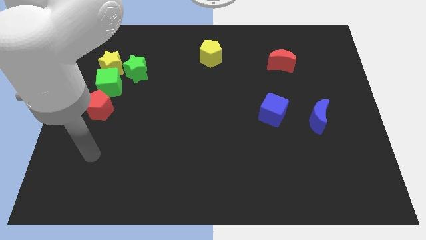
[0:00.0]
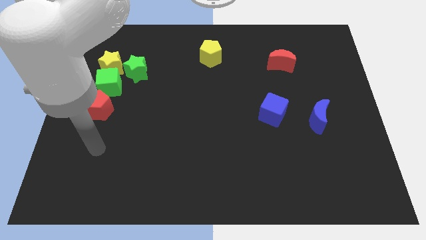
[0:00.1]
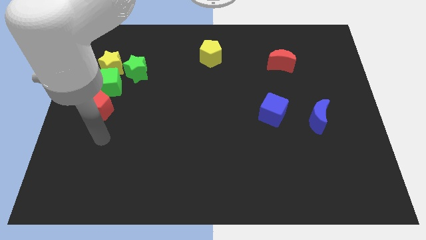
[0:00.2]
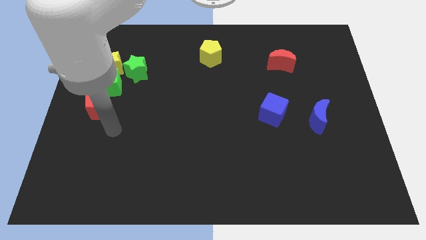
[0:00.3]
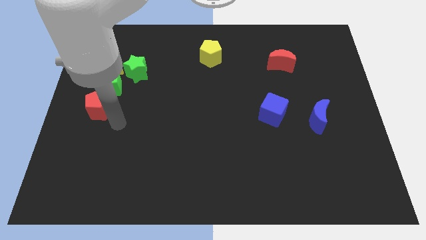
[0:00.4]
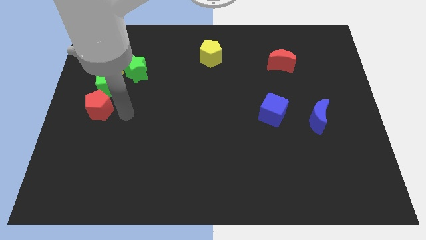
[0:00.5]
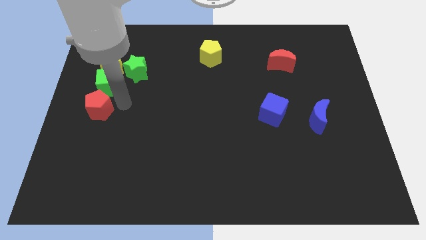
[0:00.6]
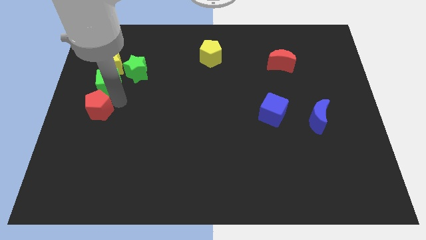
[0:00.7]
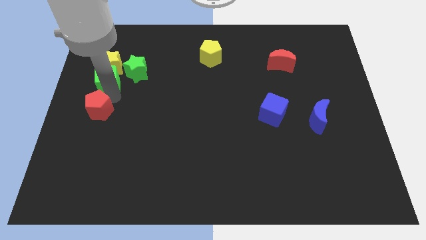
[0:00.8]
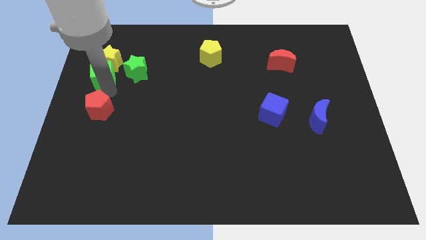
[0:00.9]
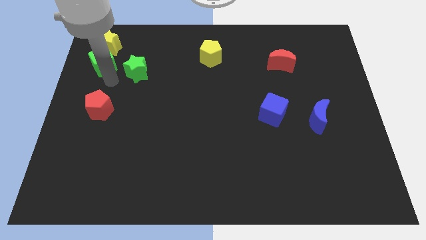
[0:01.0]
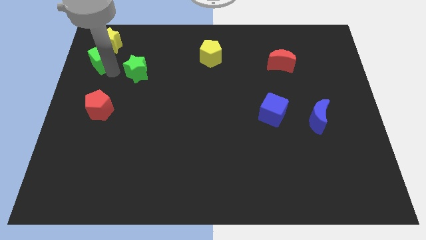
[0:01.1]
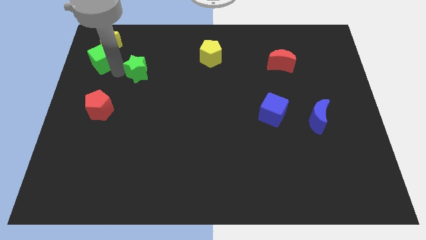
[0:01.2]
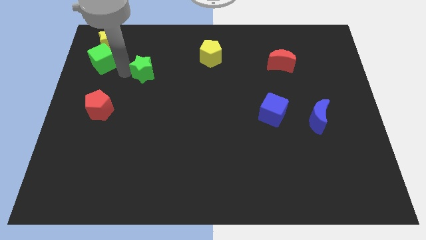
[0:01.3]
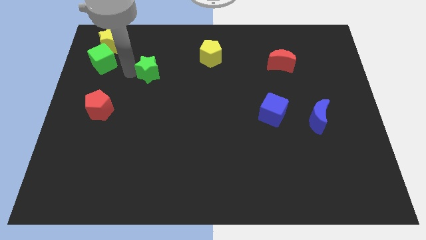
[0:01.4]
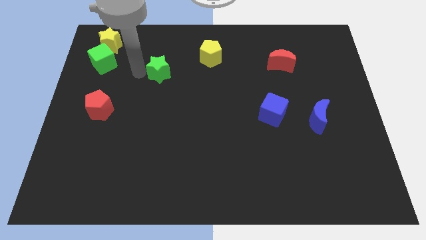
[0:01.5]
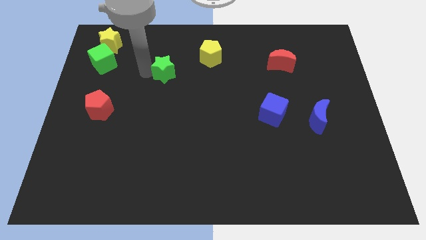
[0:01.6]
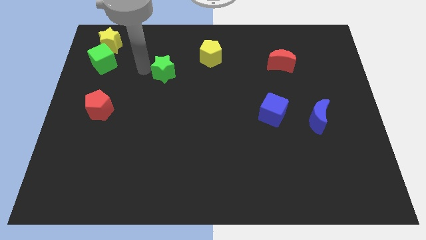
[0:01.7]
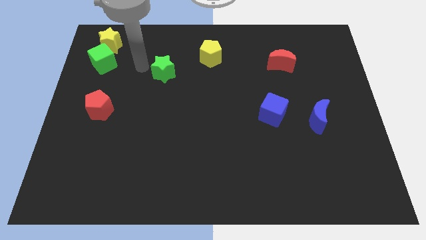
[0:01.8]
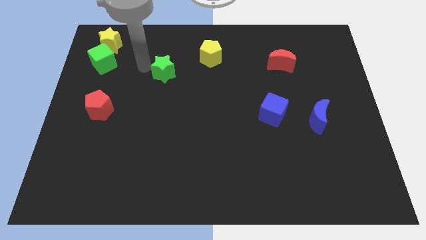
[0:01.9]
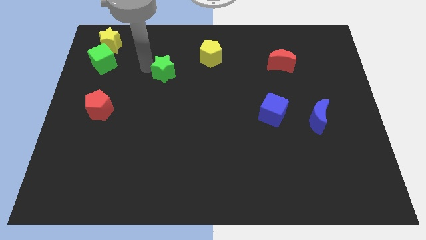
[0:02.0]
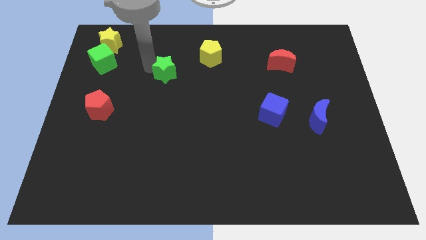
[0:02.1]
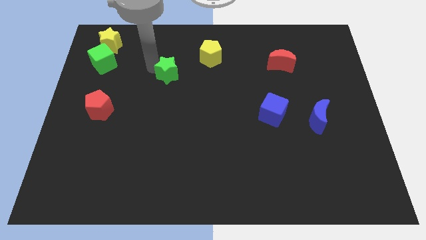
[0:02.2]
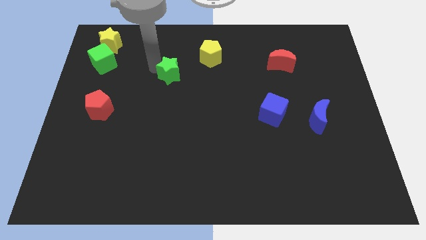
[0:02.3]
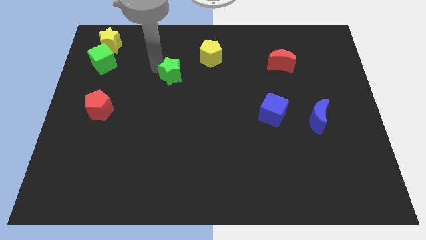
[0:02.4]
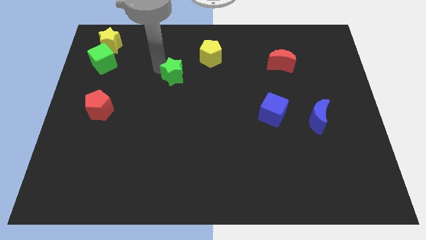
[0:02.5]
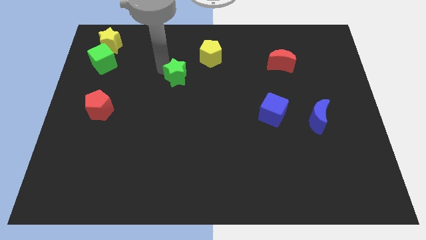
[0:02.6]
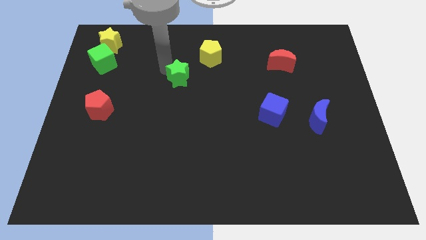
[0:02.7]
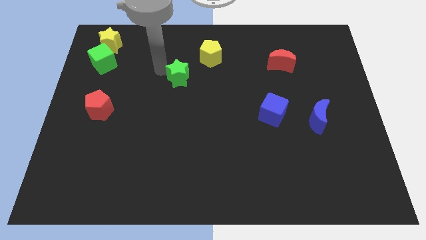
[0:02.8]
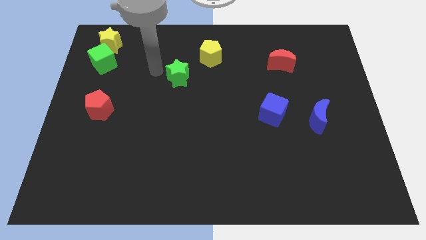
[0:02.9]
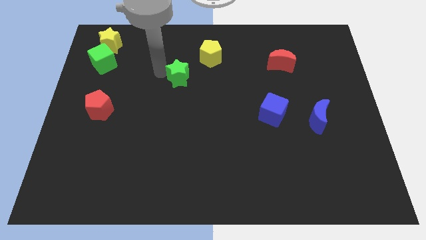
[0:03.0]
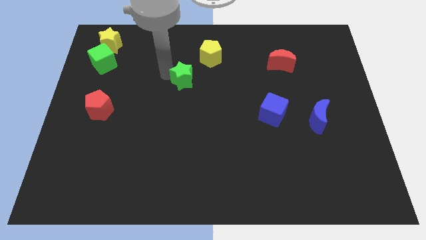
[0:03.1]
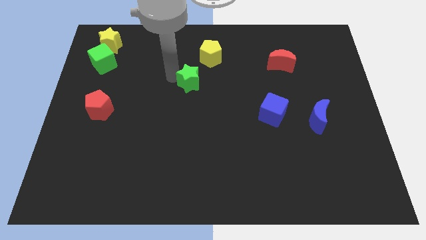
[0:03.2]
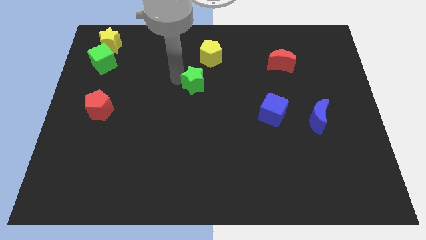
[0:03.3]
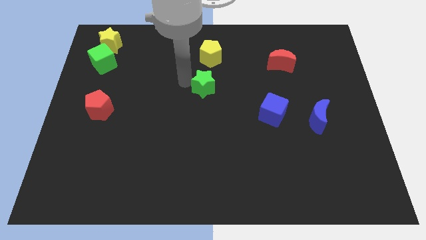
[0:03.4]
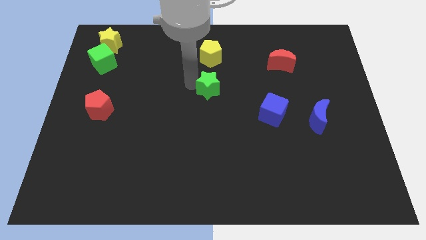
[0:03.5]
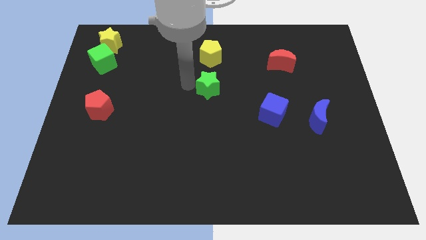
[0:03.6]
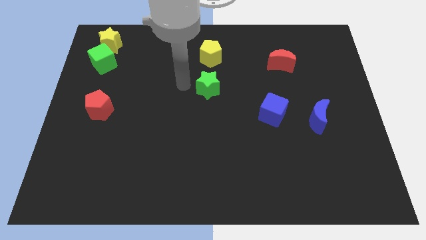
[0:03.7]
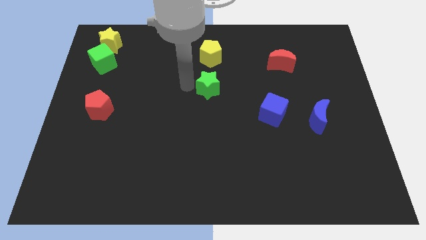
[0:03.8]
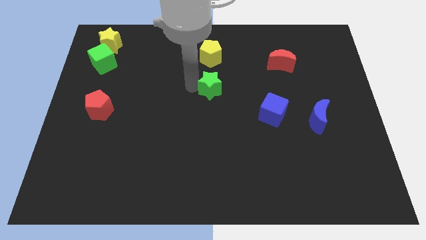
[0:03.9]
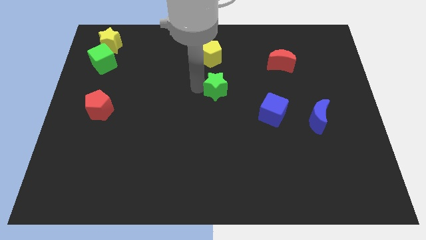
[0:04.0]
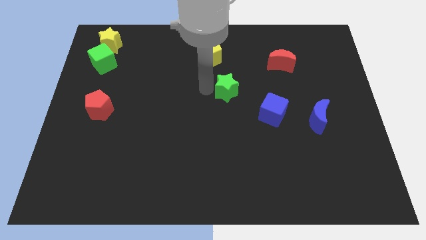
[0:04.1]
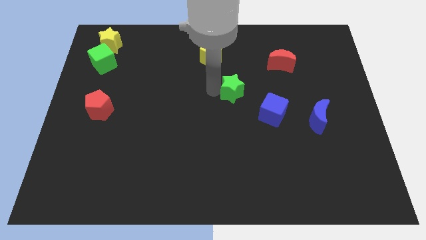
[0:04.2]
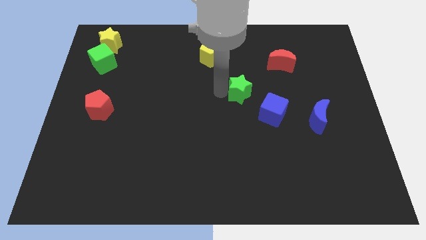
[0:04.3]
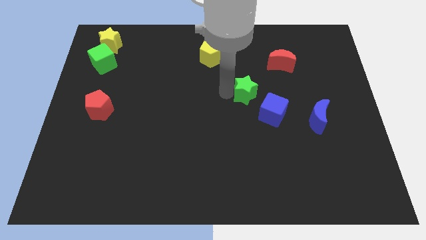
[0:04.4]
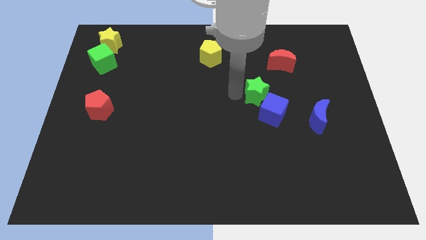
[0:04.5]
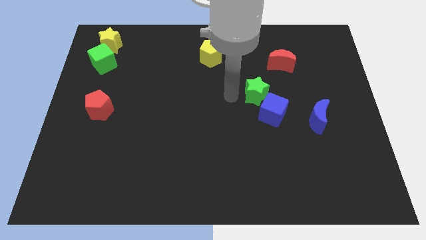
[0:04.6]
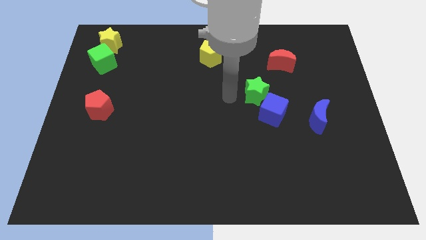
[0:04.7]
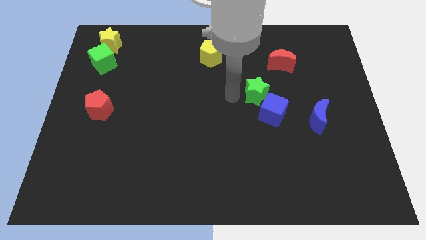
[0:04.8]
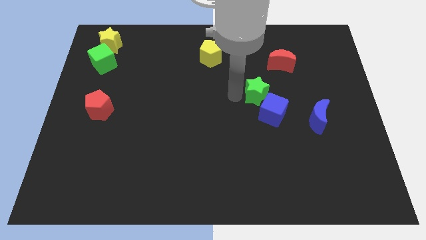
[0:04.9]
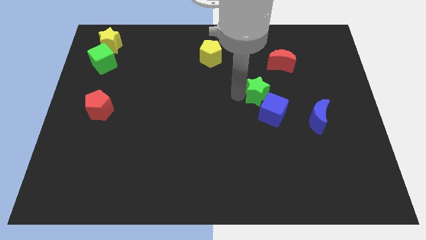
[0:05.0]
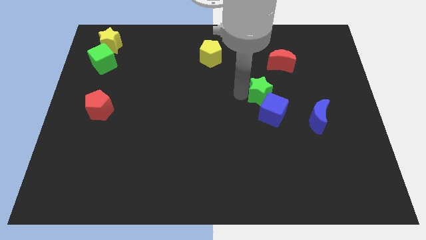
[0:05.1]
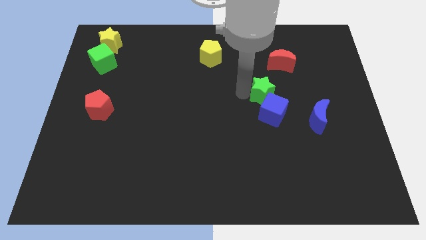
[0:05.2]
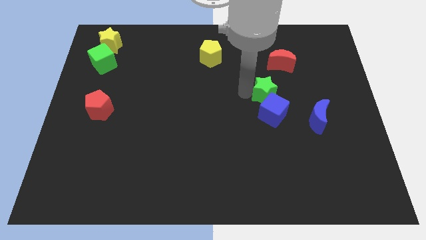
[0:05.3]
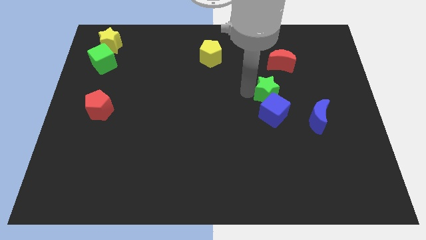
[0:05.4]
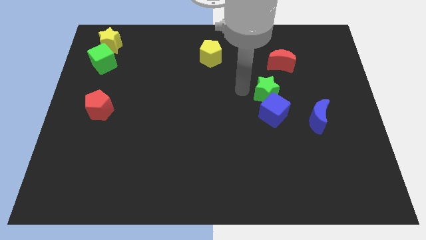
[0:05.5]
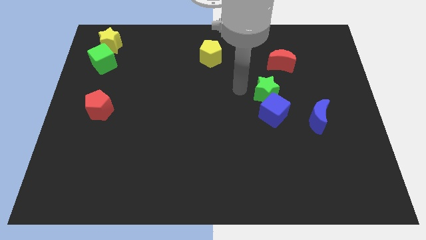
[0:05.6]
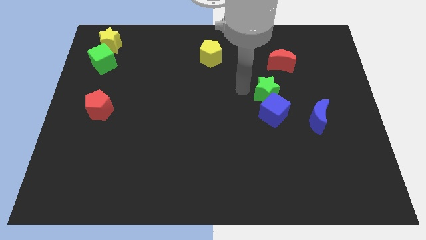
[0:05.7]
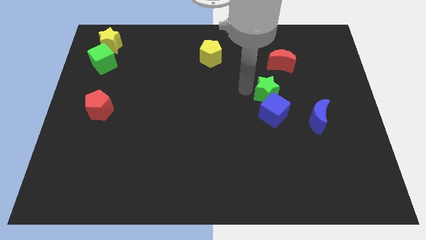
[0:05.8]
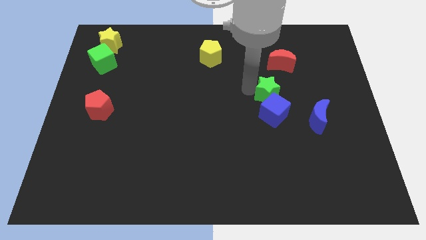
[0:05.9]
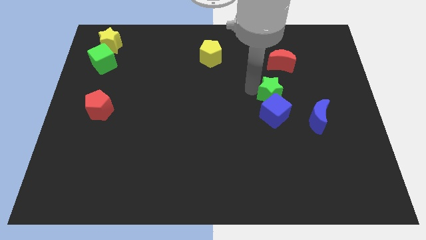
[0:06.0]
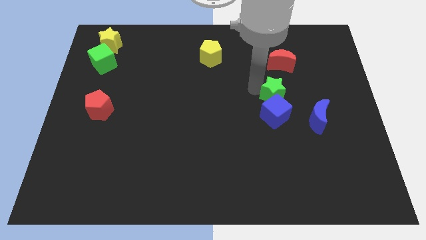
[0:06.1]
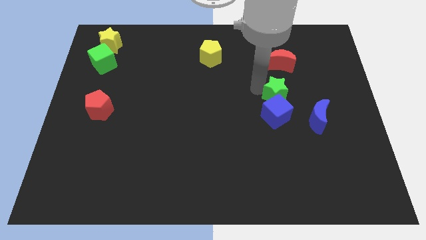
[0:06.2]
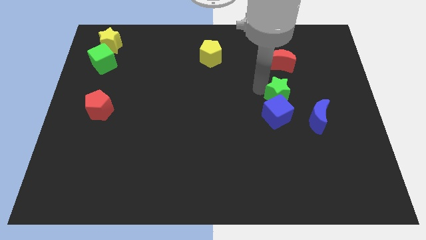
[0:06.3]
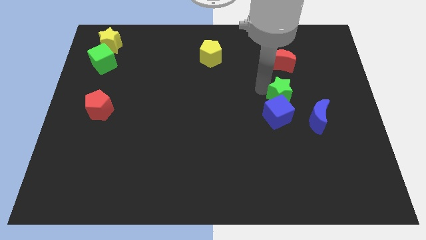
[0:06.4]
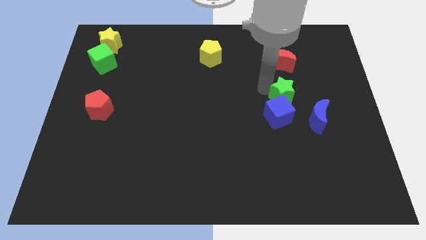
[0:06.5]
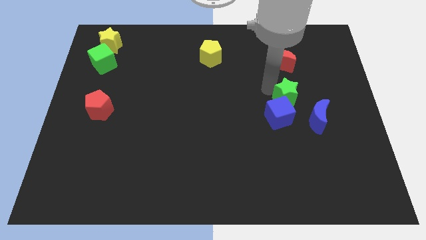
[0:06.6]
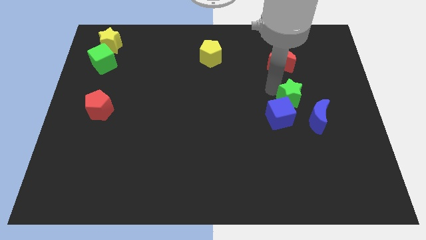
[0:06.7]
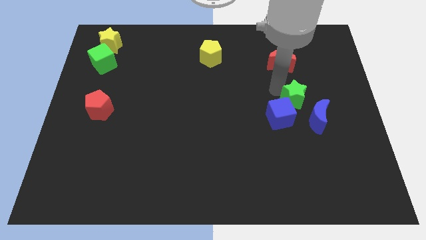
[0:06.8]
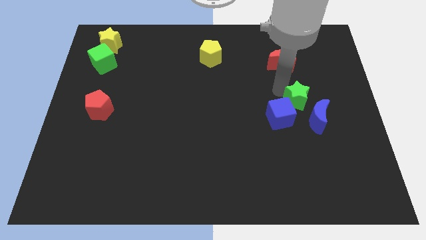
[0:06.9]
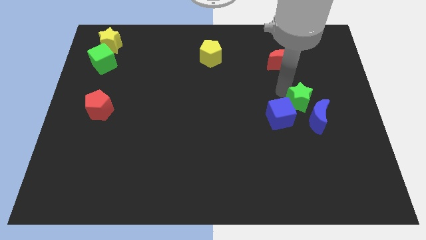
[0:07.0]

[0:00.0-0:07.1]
move the green star next to the blue moon

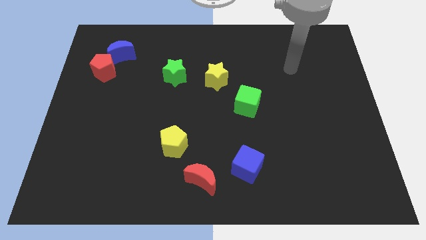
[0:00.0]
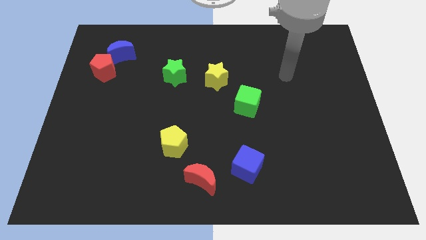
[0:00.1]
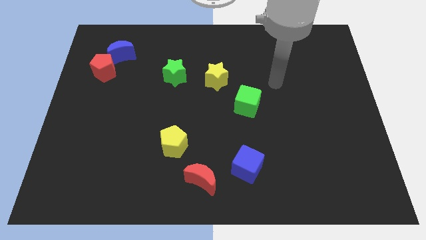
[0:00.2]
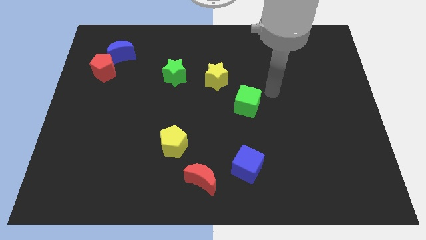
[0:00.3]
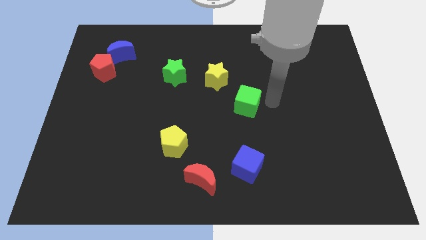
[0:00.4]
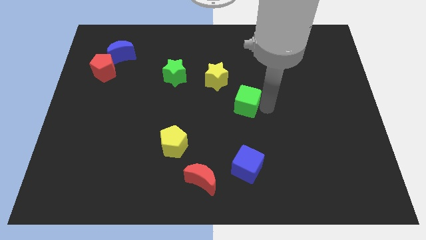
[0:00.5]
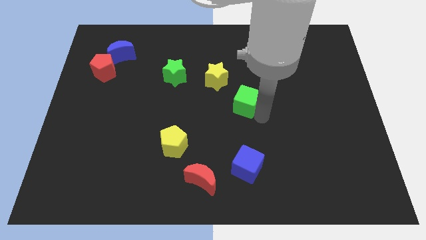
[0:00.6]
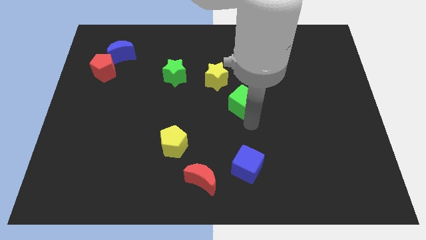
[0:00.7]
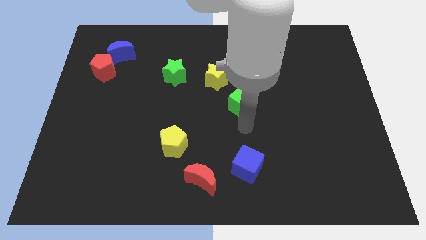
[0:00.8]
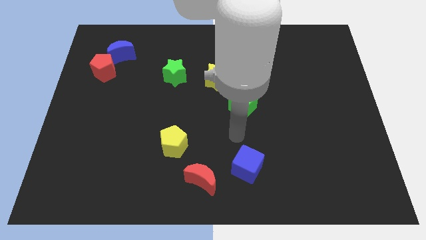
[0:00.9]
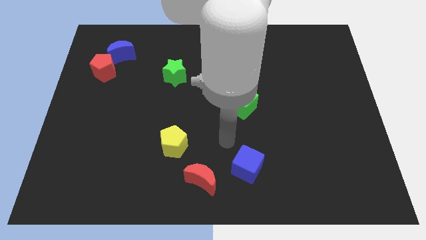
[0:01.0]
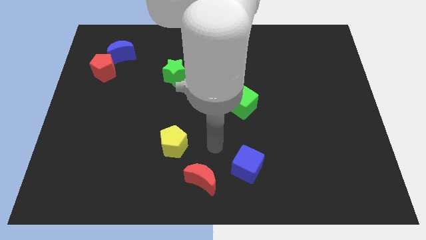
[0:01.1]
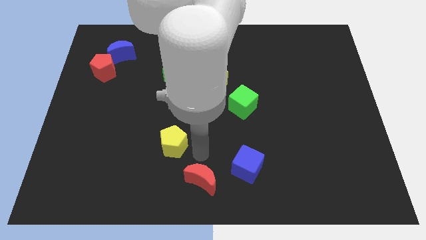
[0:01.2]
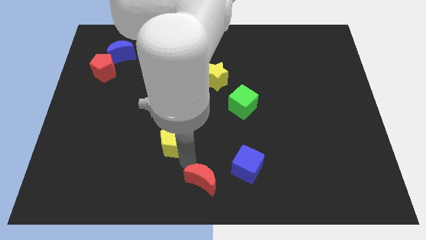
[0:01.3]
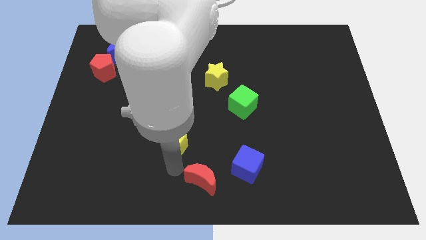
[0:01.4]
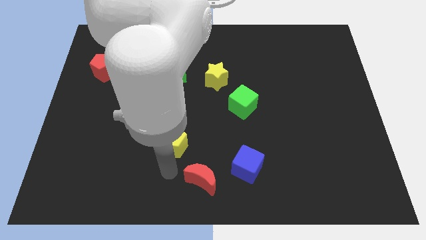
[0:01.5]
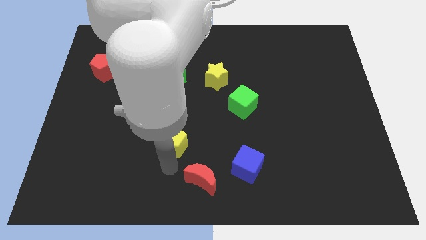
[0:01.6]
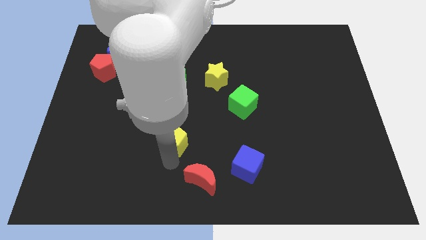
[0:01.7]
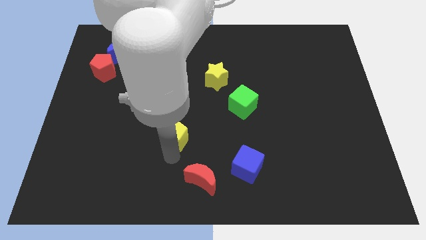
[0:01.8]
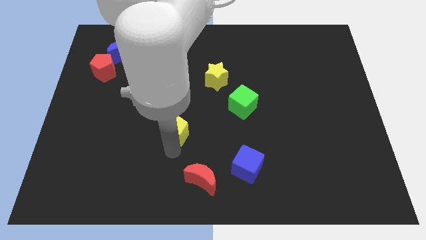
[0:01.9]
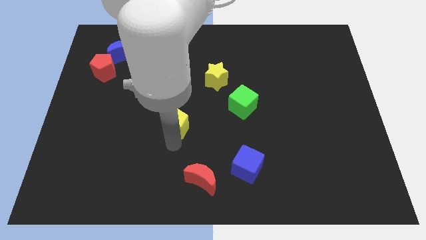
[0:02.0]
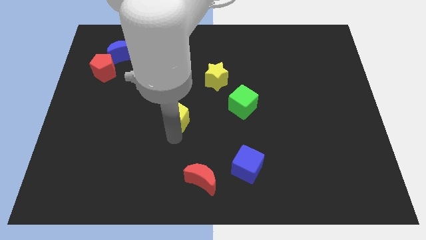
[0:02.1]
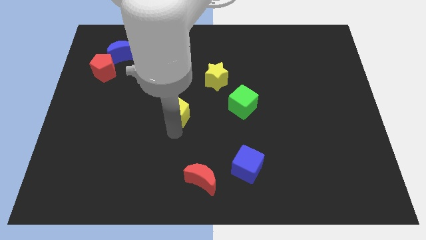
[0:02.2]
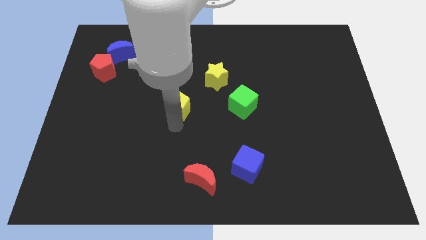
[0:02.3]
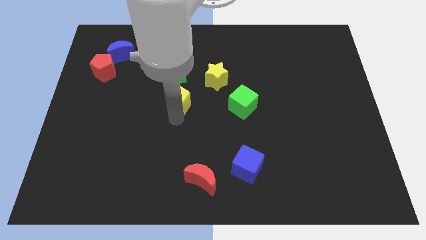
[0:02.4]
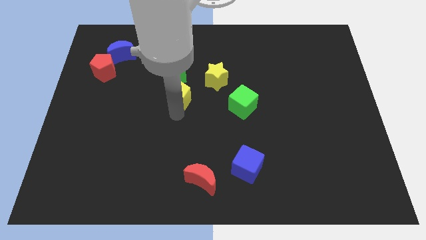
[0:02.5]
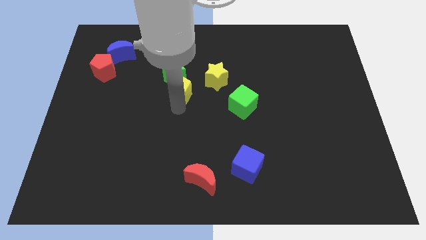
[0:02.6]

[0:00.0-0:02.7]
slide the yellow pentagon towards the green star
